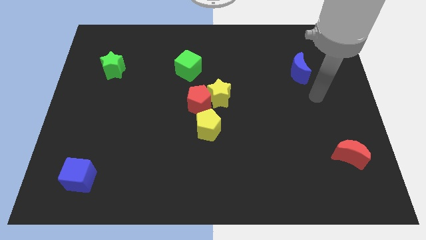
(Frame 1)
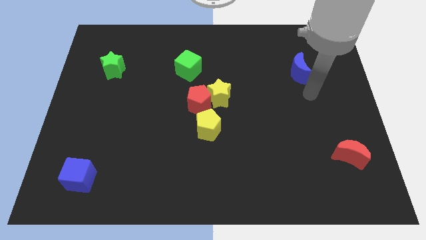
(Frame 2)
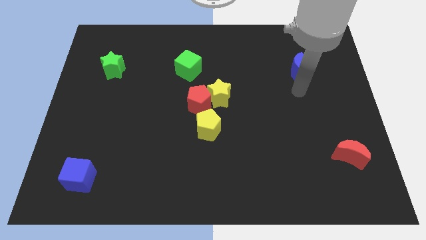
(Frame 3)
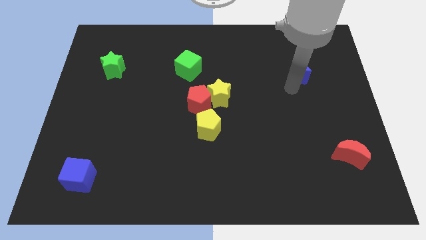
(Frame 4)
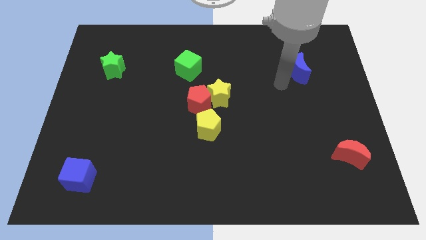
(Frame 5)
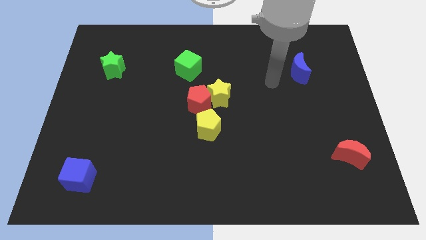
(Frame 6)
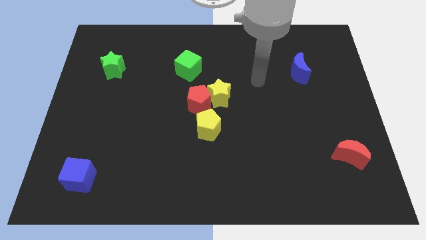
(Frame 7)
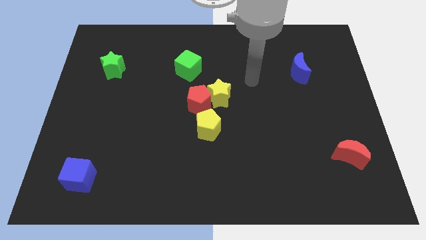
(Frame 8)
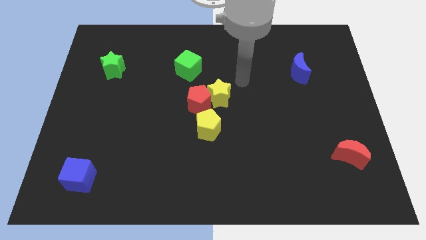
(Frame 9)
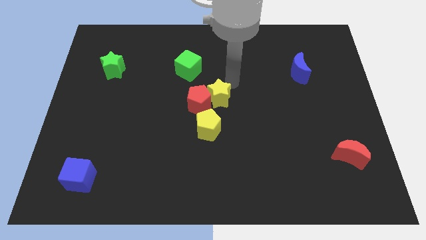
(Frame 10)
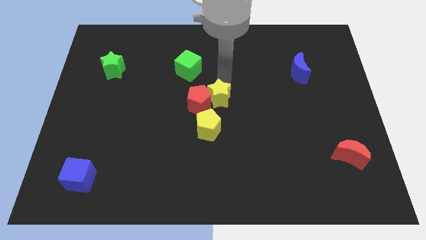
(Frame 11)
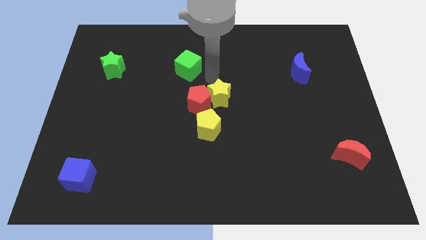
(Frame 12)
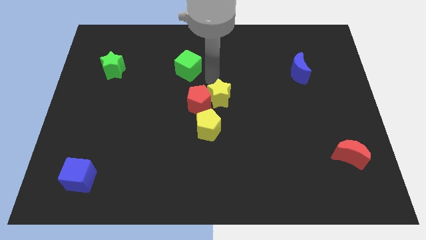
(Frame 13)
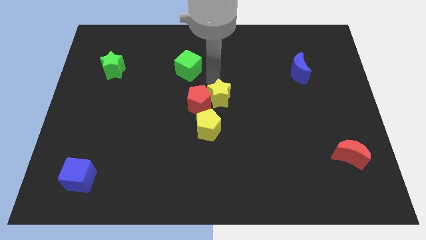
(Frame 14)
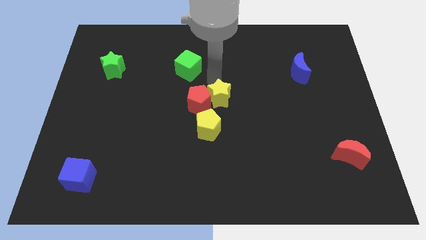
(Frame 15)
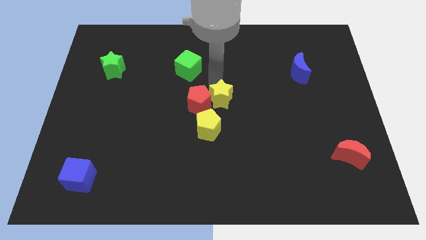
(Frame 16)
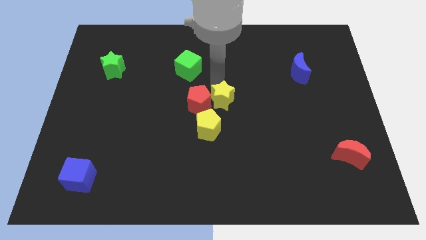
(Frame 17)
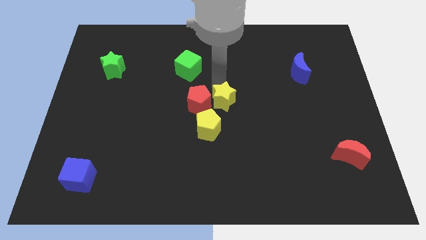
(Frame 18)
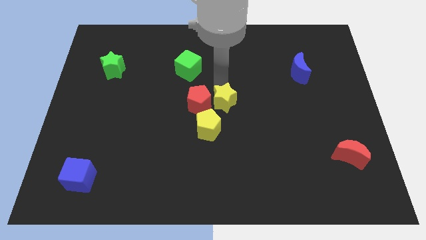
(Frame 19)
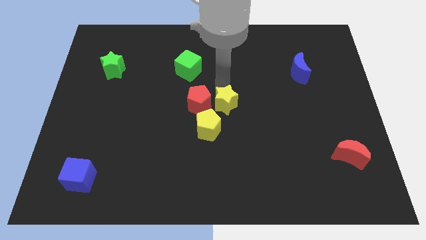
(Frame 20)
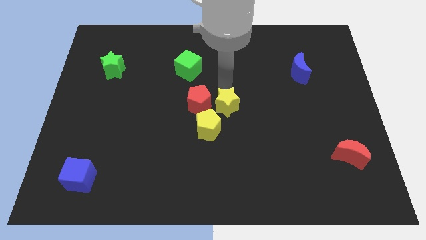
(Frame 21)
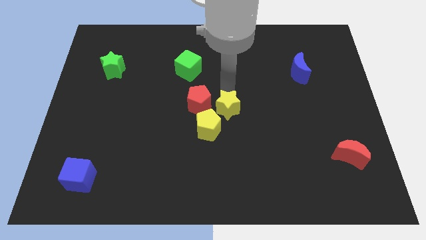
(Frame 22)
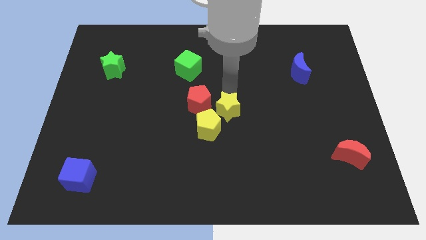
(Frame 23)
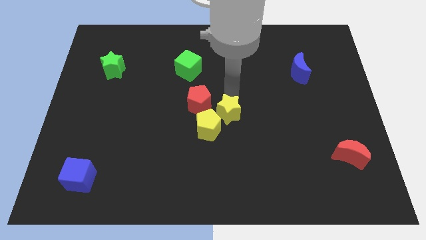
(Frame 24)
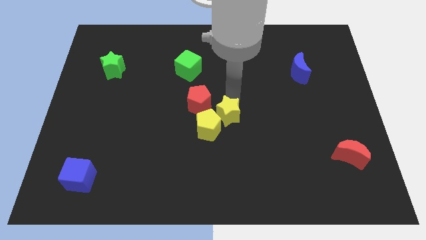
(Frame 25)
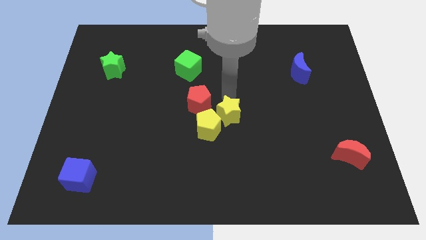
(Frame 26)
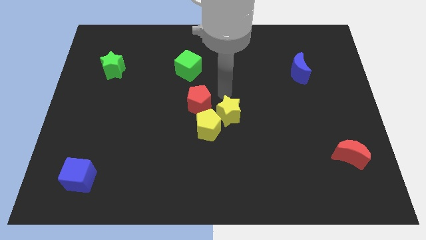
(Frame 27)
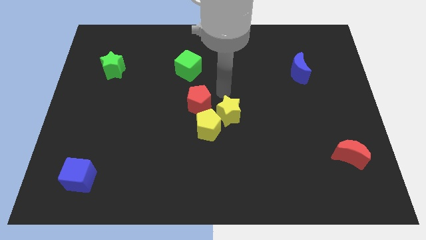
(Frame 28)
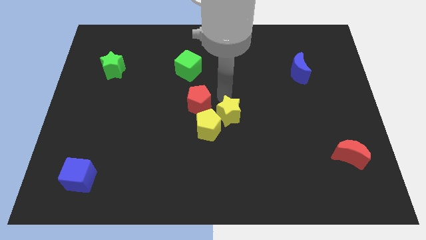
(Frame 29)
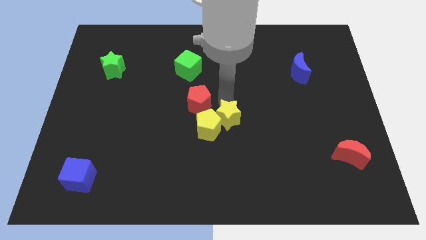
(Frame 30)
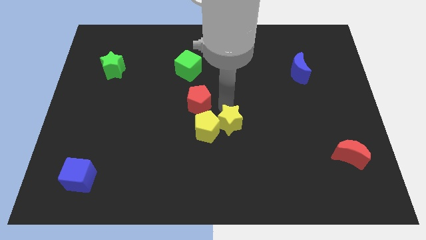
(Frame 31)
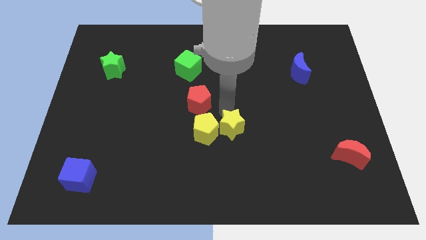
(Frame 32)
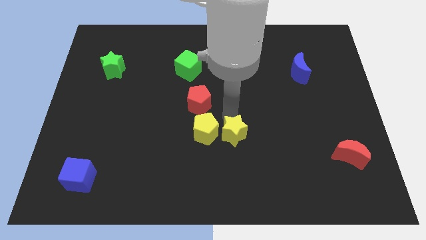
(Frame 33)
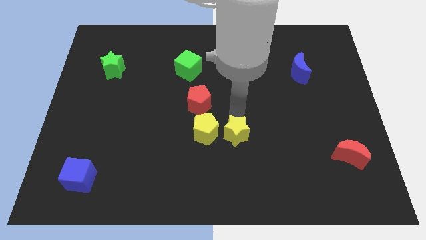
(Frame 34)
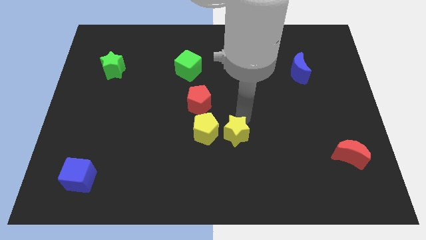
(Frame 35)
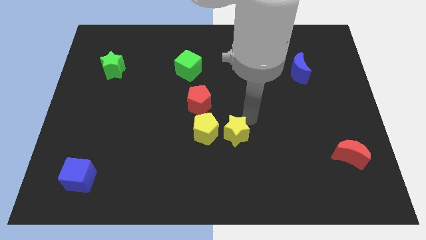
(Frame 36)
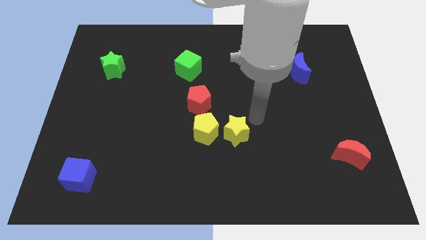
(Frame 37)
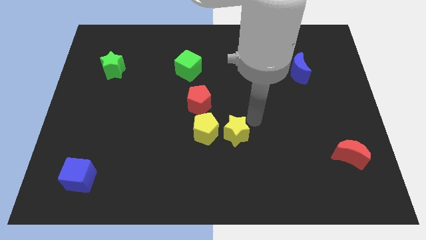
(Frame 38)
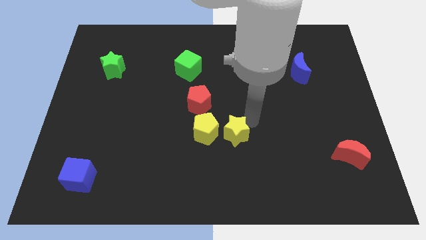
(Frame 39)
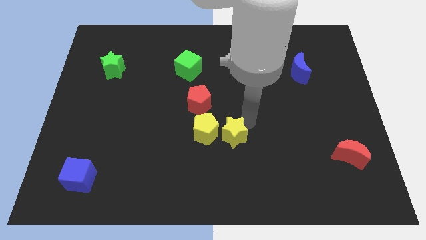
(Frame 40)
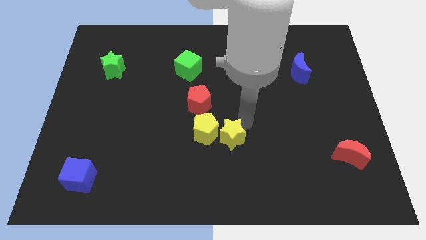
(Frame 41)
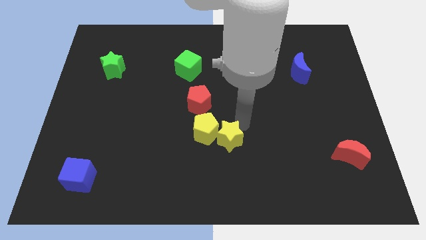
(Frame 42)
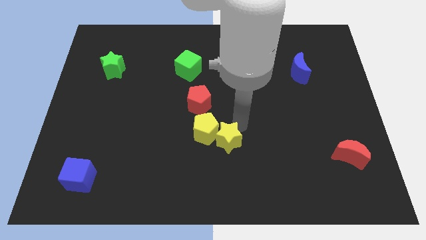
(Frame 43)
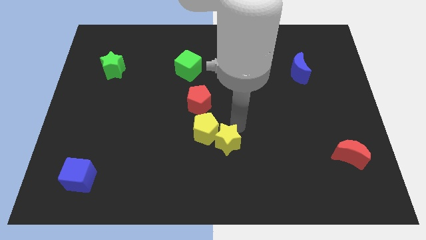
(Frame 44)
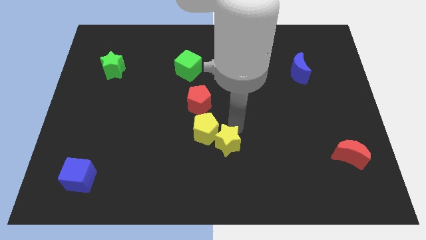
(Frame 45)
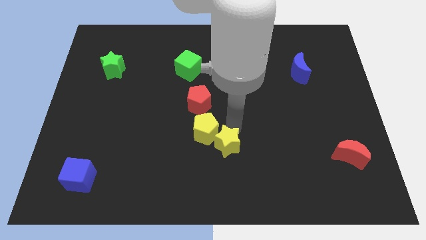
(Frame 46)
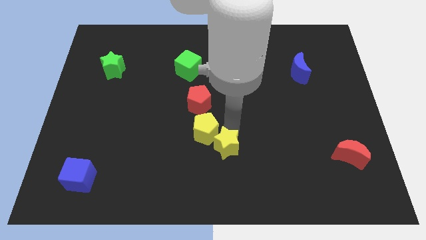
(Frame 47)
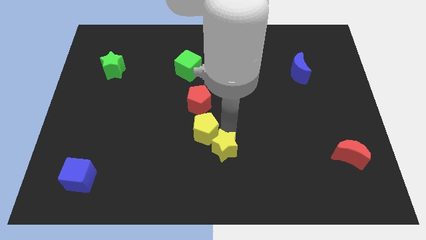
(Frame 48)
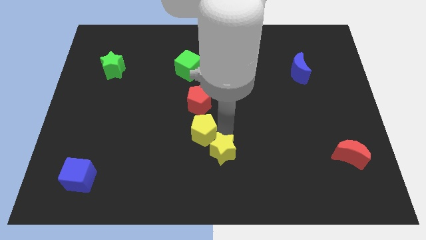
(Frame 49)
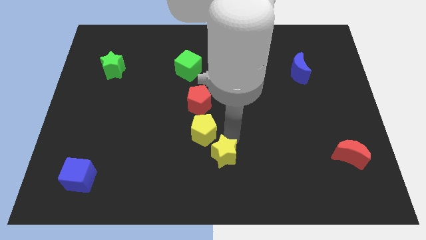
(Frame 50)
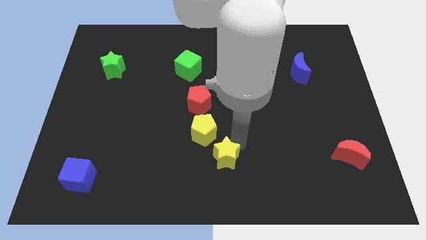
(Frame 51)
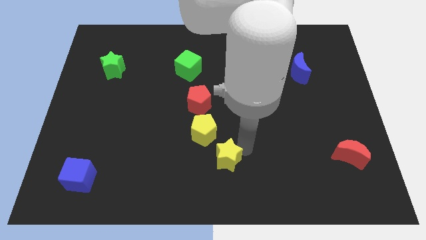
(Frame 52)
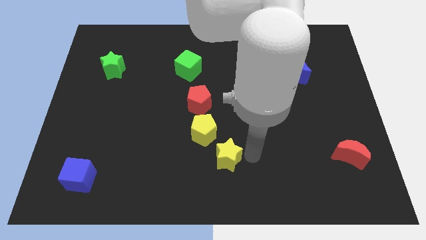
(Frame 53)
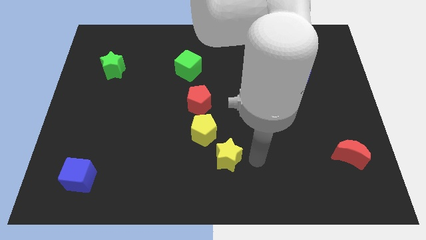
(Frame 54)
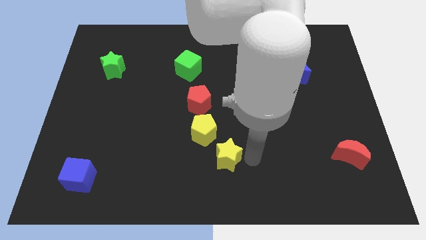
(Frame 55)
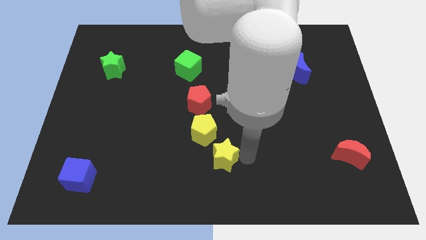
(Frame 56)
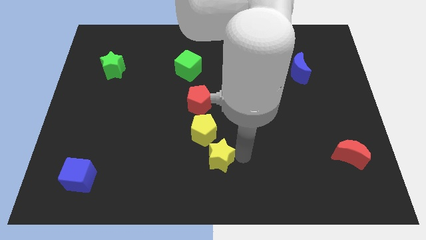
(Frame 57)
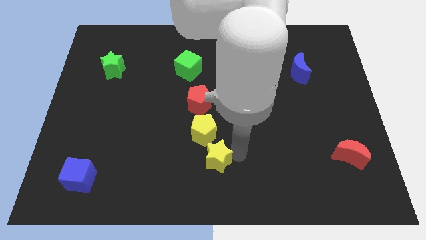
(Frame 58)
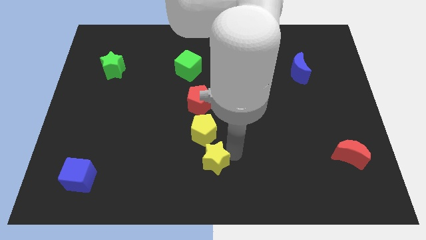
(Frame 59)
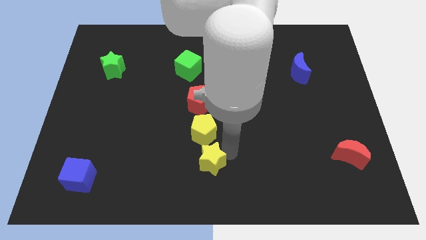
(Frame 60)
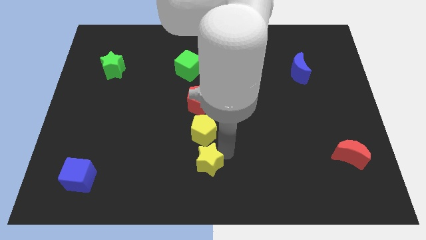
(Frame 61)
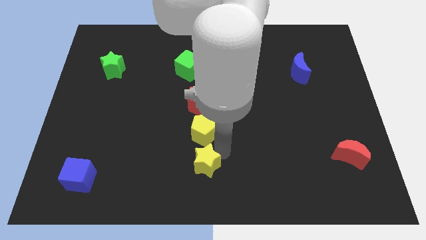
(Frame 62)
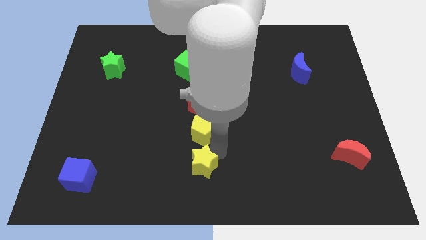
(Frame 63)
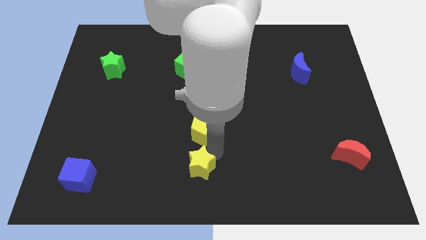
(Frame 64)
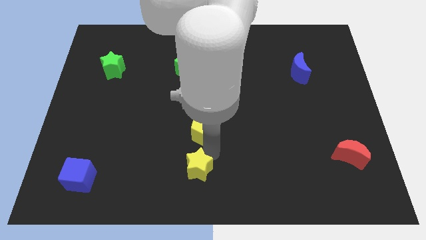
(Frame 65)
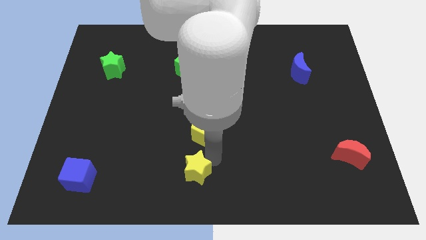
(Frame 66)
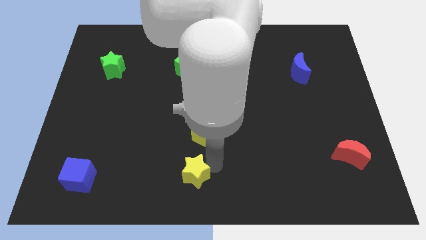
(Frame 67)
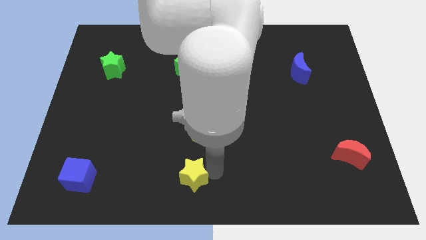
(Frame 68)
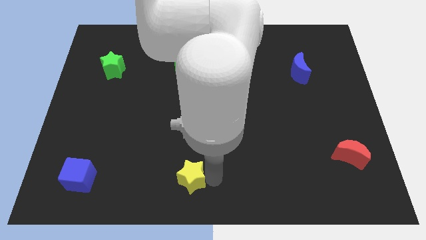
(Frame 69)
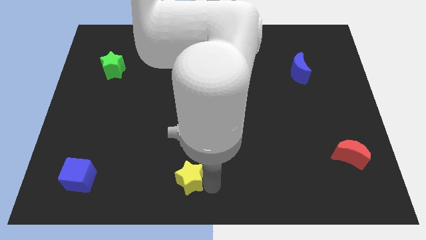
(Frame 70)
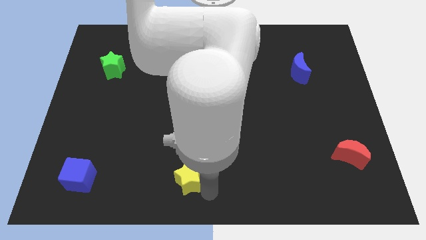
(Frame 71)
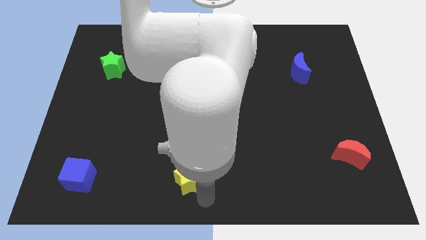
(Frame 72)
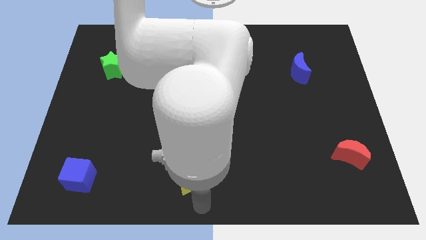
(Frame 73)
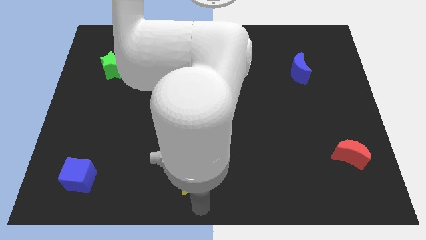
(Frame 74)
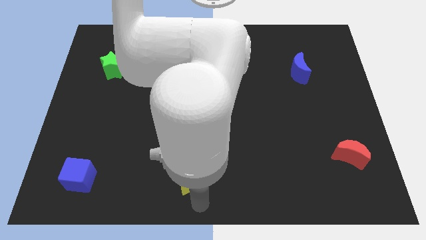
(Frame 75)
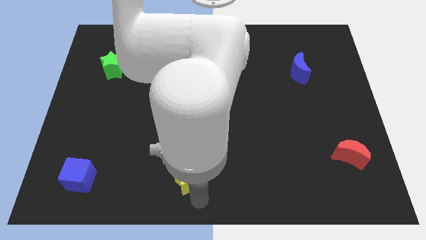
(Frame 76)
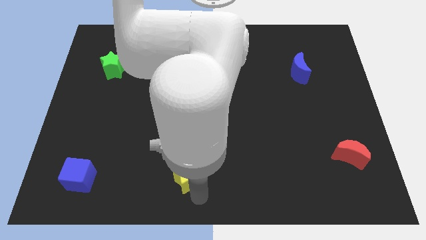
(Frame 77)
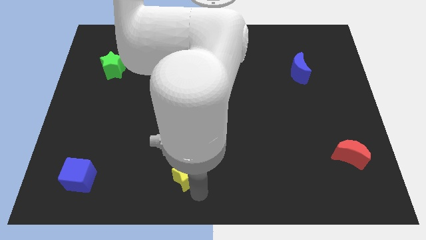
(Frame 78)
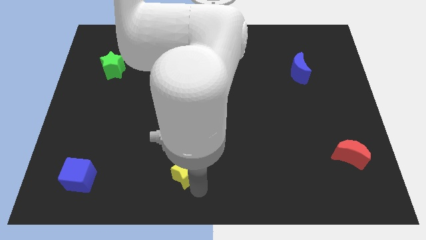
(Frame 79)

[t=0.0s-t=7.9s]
put the yellow star diagonally down and to the left of the yellow pentagon
